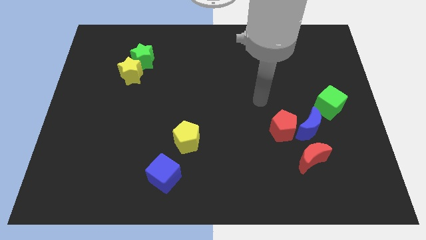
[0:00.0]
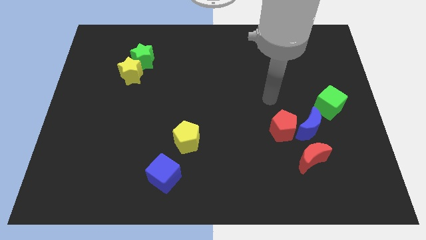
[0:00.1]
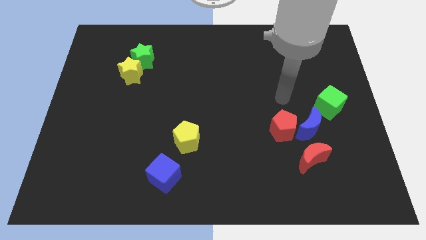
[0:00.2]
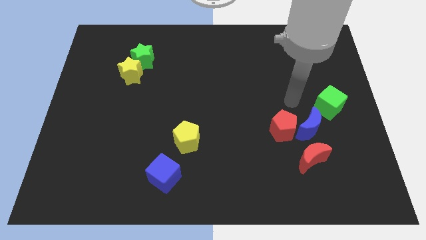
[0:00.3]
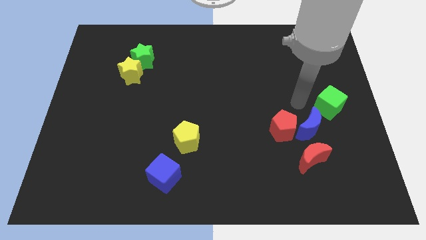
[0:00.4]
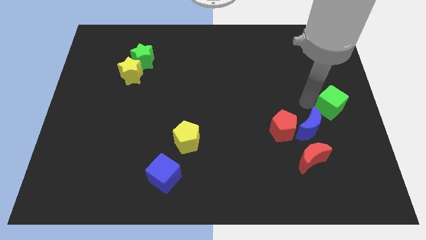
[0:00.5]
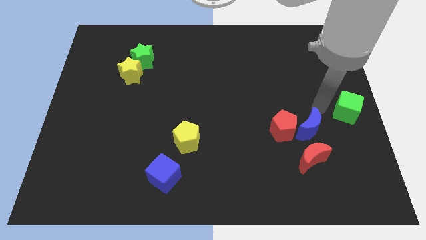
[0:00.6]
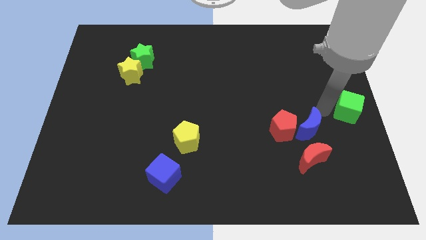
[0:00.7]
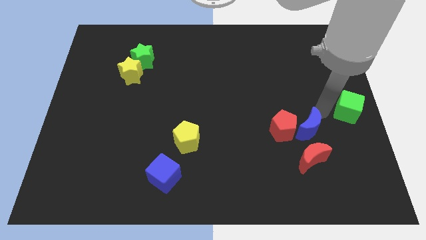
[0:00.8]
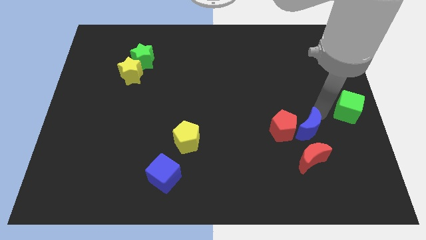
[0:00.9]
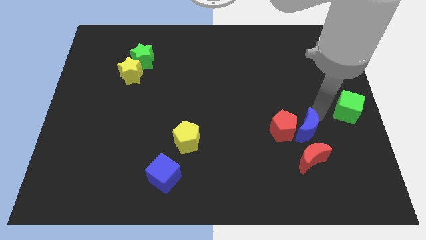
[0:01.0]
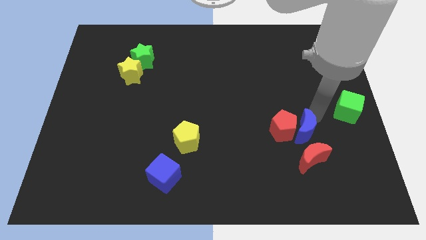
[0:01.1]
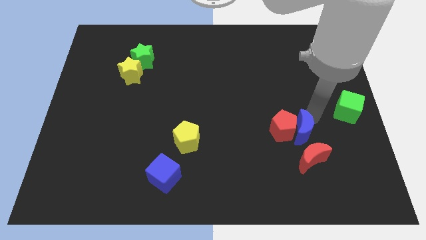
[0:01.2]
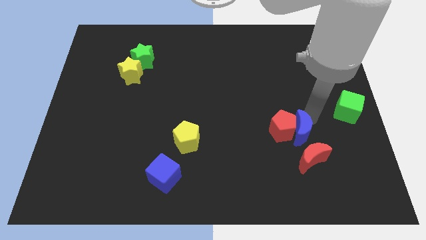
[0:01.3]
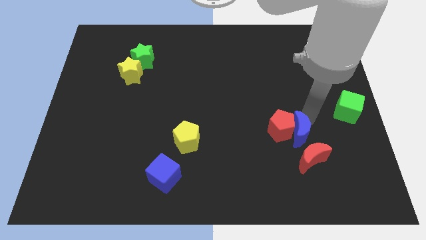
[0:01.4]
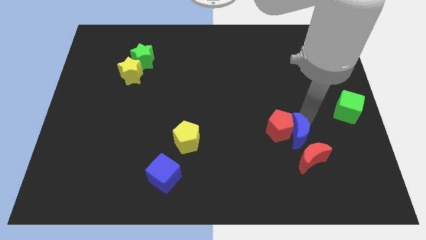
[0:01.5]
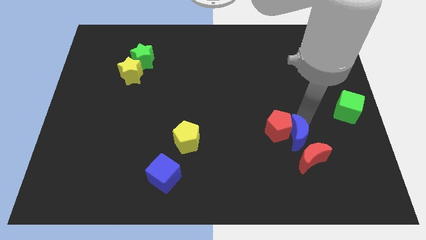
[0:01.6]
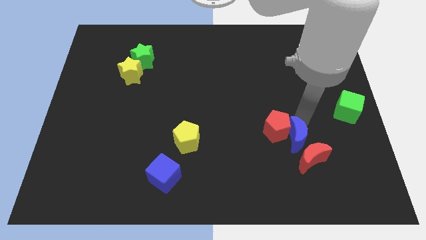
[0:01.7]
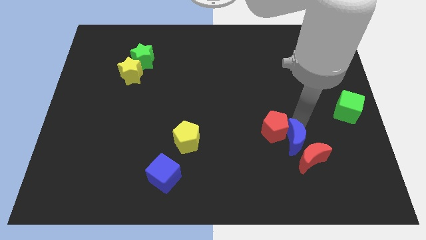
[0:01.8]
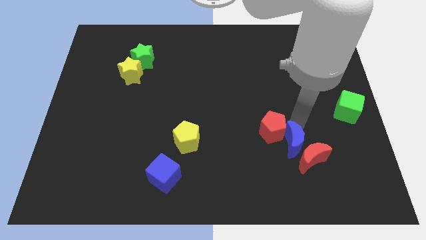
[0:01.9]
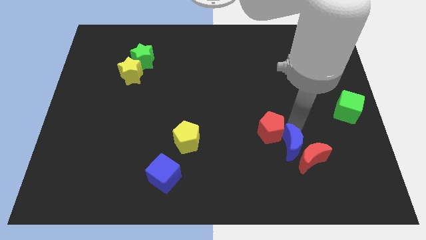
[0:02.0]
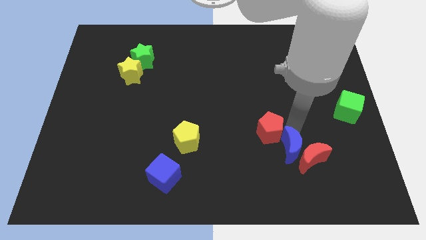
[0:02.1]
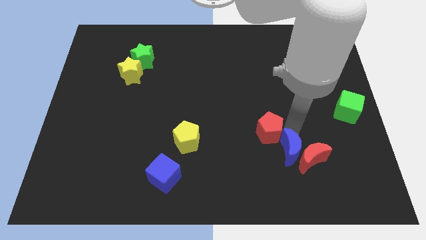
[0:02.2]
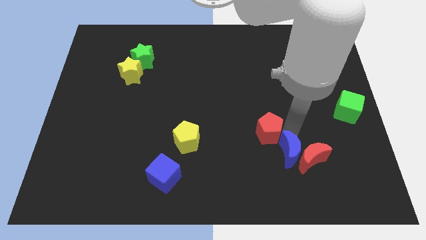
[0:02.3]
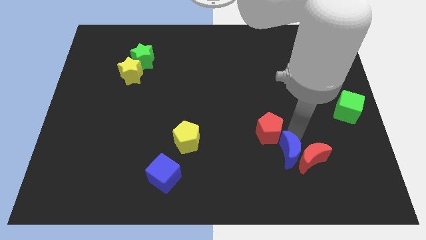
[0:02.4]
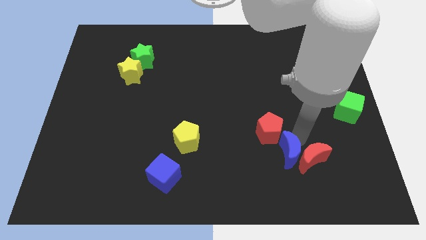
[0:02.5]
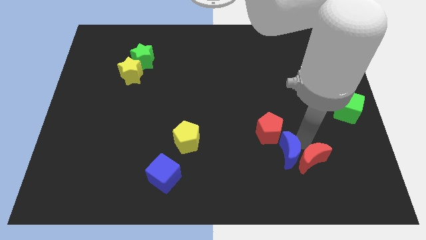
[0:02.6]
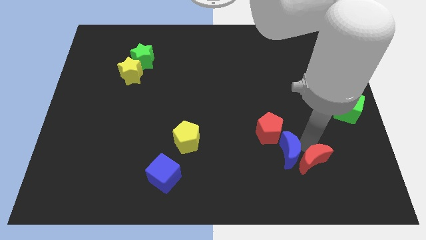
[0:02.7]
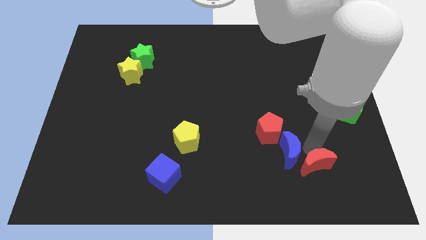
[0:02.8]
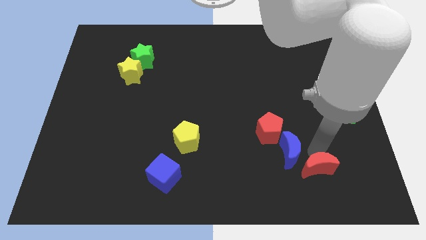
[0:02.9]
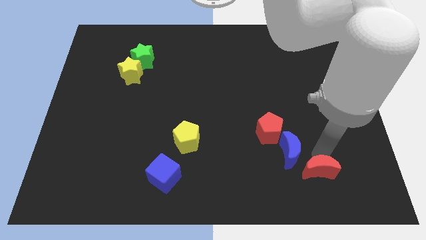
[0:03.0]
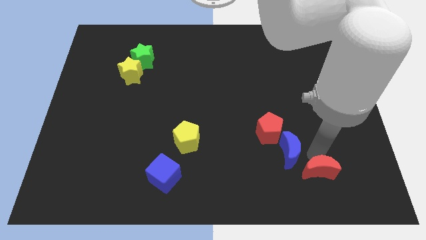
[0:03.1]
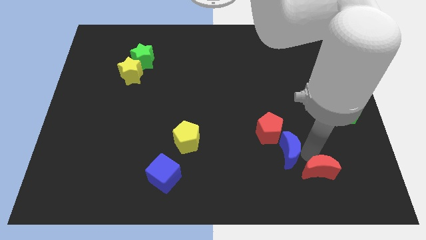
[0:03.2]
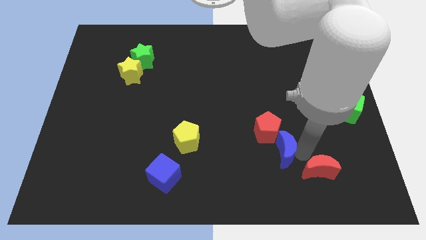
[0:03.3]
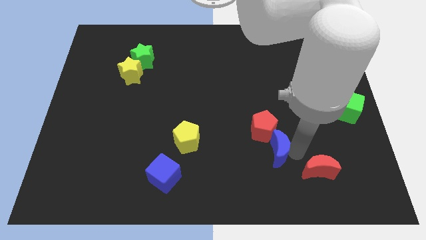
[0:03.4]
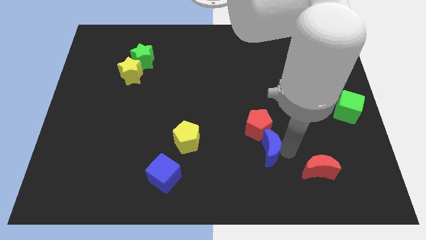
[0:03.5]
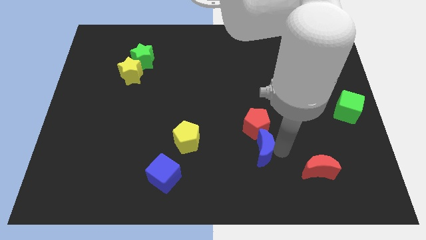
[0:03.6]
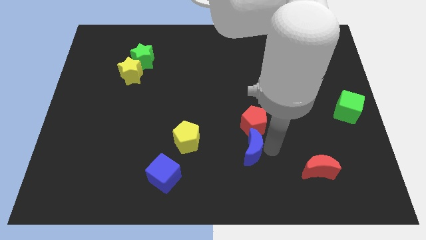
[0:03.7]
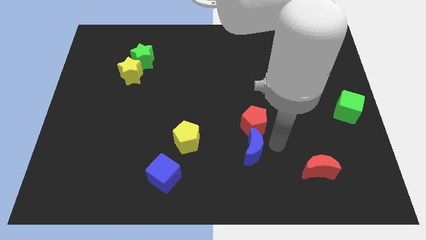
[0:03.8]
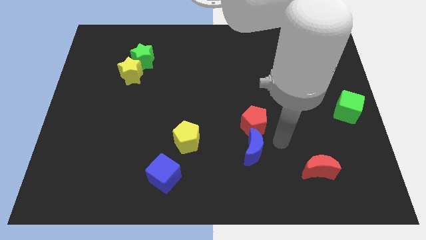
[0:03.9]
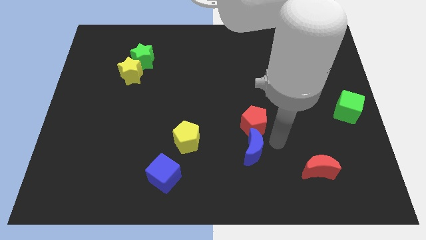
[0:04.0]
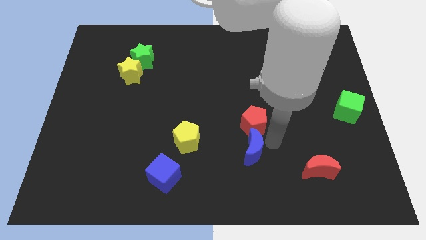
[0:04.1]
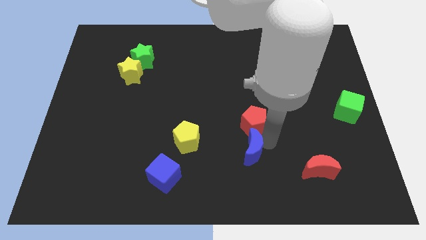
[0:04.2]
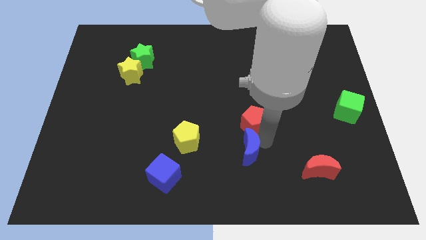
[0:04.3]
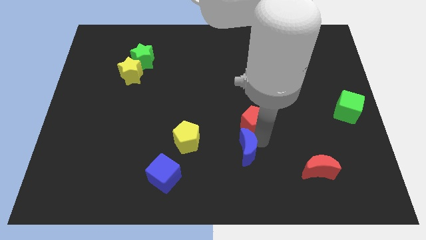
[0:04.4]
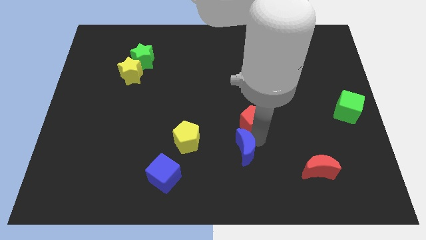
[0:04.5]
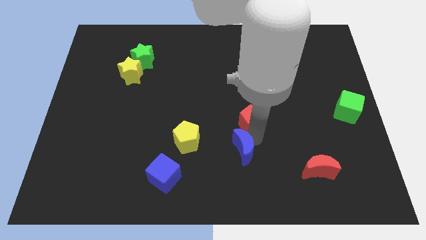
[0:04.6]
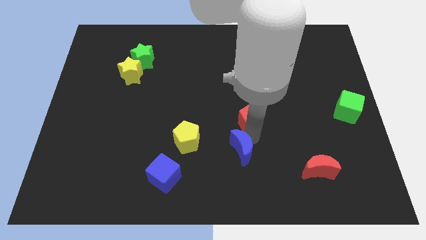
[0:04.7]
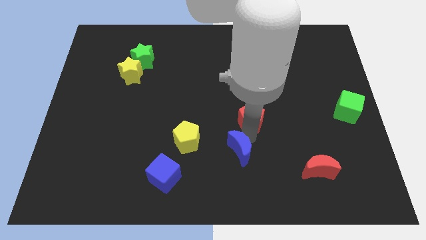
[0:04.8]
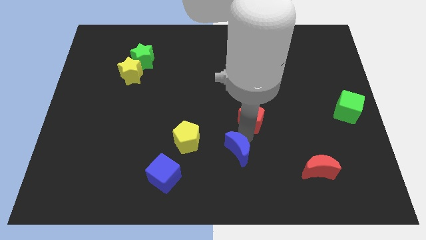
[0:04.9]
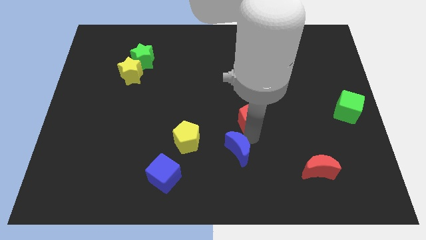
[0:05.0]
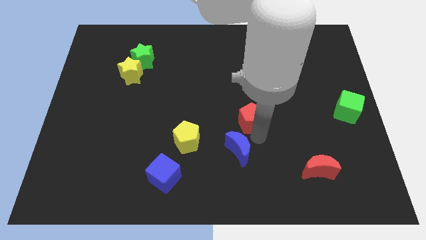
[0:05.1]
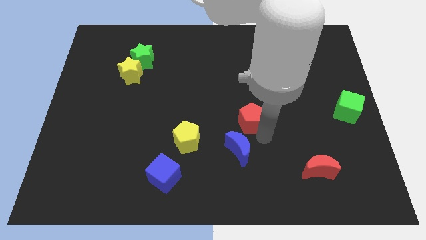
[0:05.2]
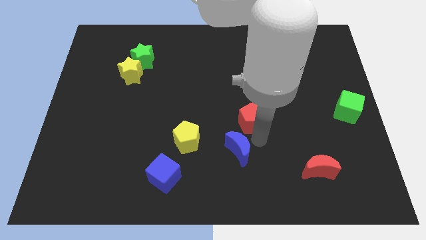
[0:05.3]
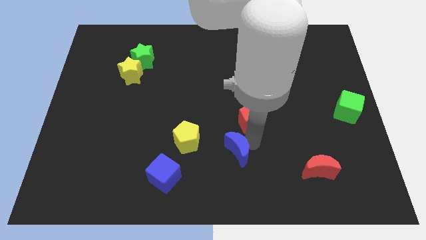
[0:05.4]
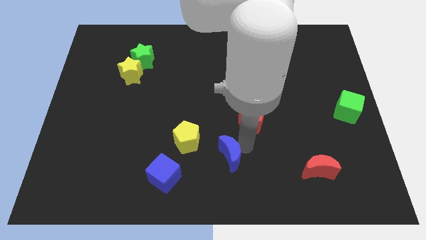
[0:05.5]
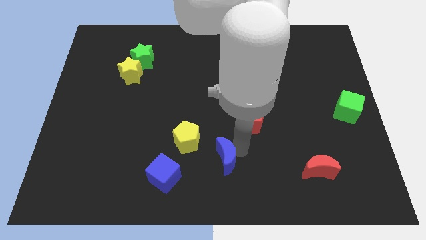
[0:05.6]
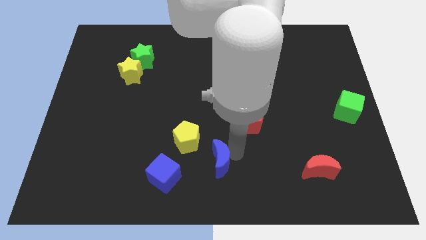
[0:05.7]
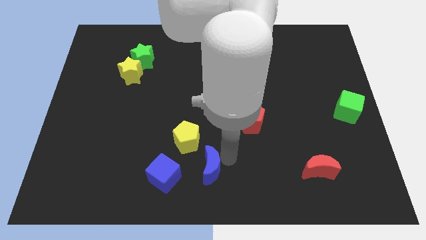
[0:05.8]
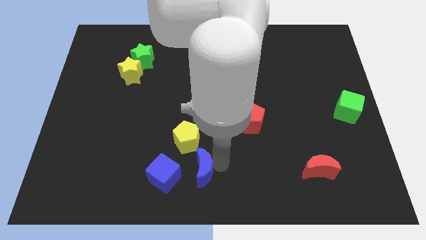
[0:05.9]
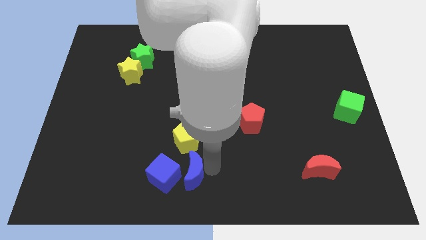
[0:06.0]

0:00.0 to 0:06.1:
slide the blue moon to the blue cube

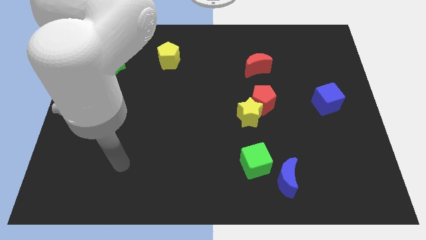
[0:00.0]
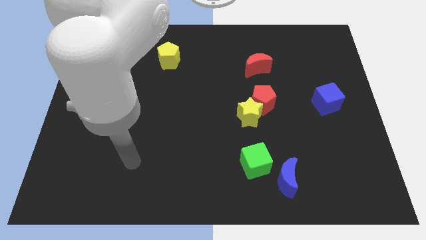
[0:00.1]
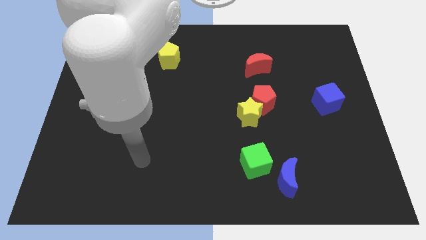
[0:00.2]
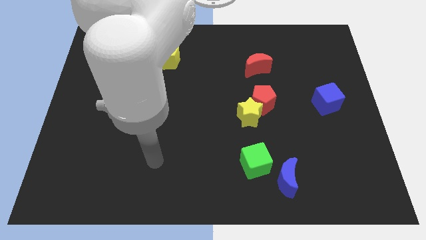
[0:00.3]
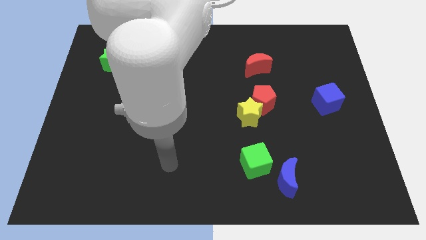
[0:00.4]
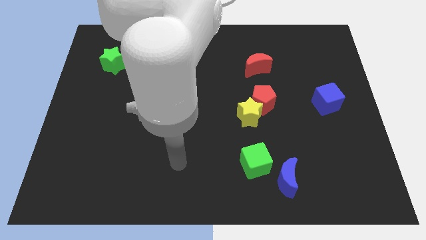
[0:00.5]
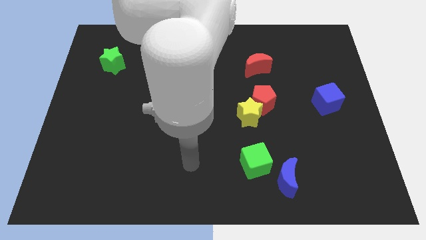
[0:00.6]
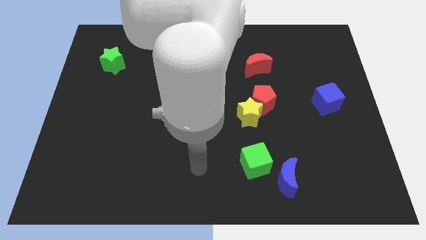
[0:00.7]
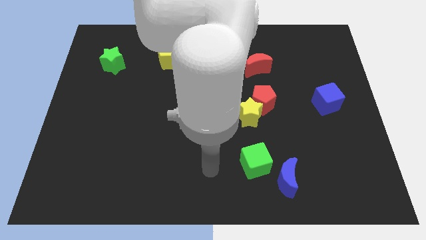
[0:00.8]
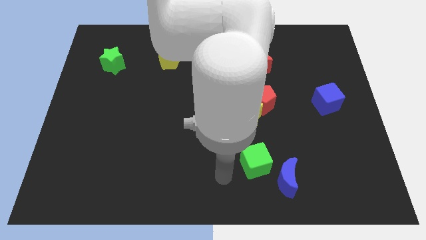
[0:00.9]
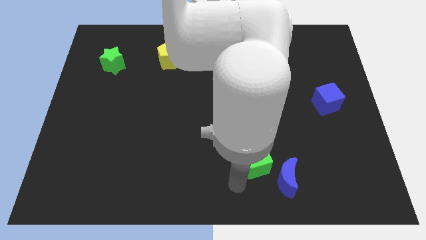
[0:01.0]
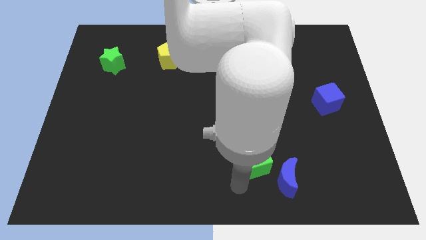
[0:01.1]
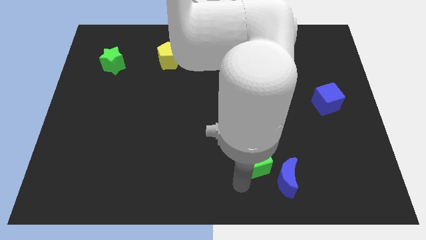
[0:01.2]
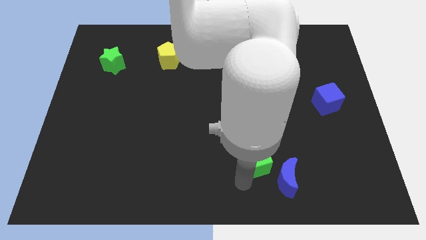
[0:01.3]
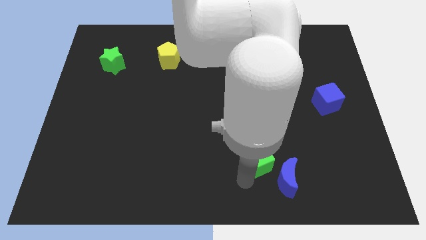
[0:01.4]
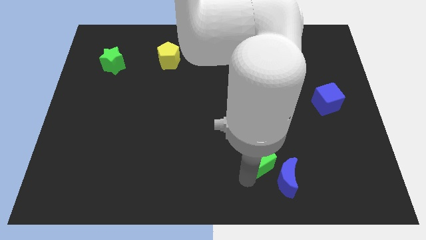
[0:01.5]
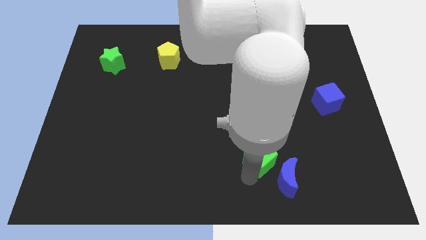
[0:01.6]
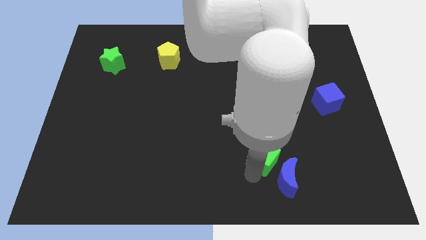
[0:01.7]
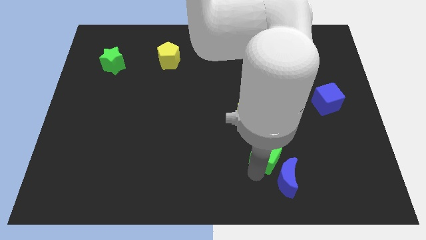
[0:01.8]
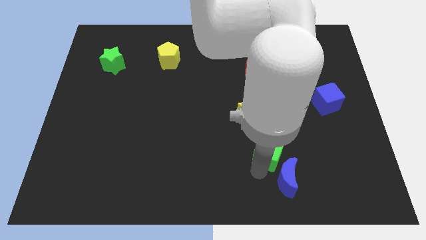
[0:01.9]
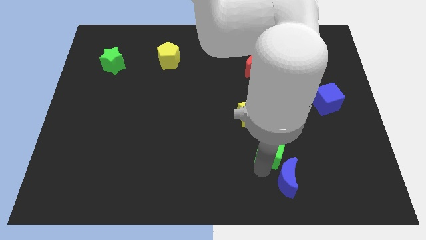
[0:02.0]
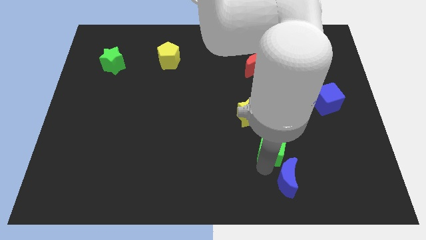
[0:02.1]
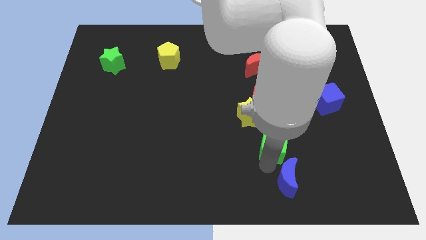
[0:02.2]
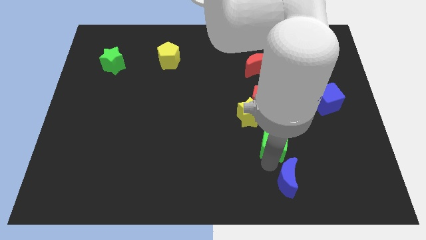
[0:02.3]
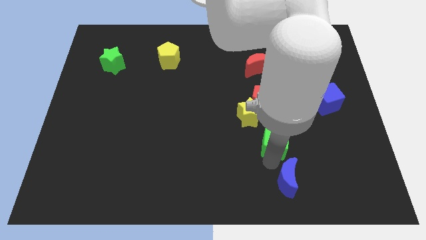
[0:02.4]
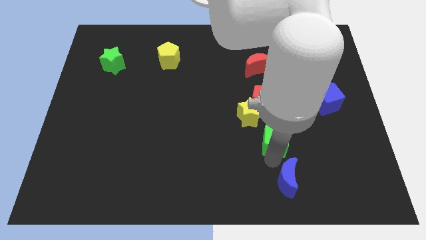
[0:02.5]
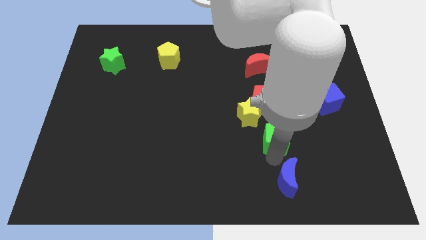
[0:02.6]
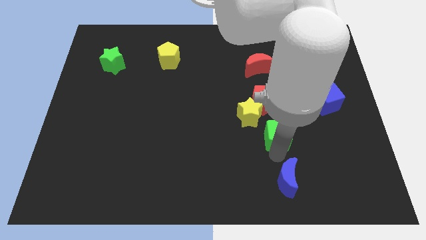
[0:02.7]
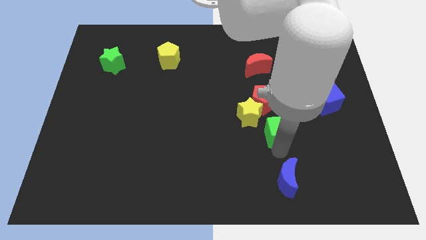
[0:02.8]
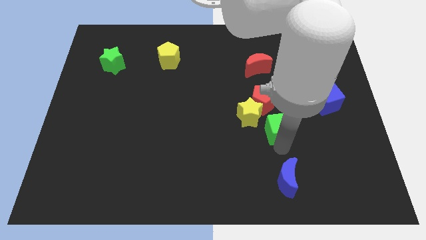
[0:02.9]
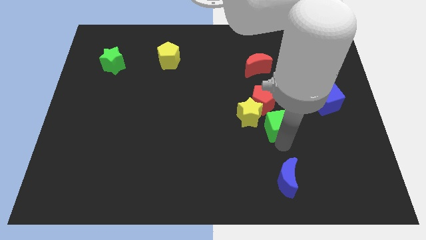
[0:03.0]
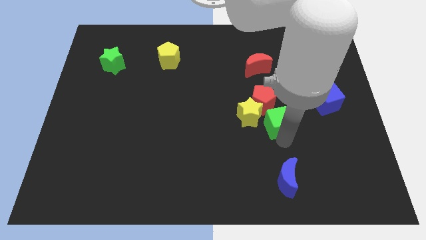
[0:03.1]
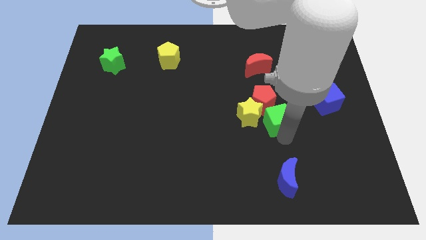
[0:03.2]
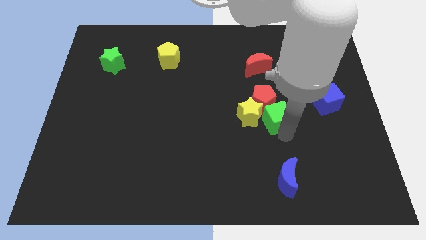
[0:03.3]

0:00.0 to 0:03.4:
move the green cube next to the red pentagon
